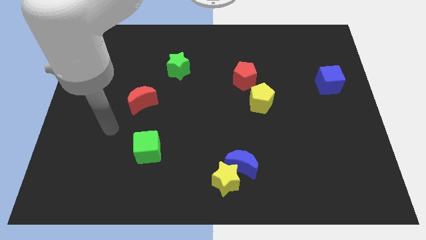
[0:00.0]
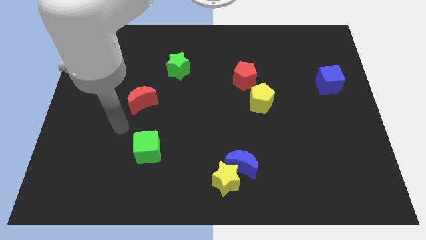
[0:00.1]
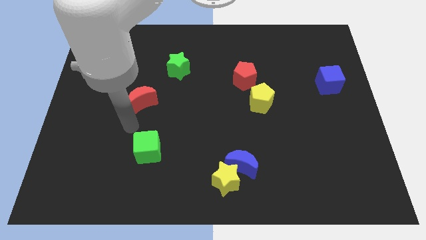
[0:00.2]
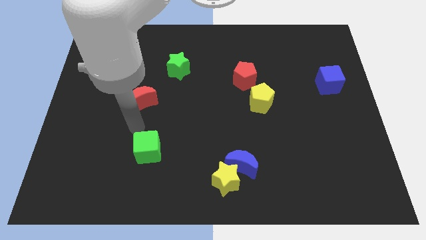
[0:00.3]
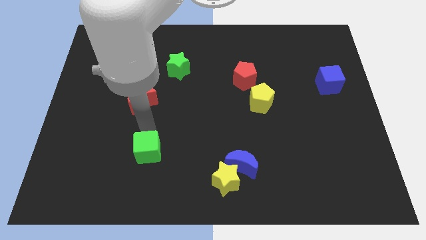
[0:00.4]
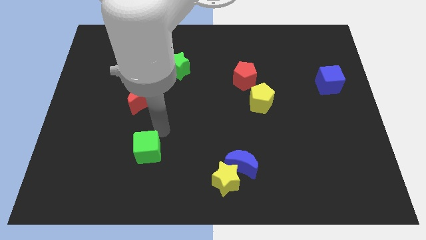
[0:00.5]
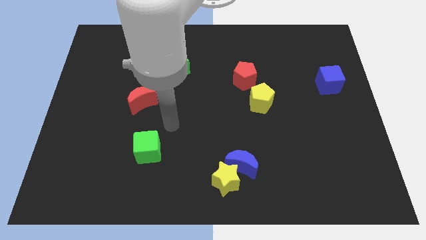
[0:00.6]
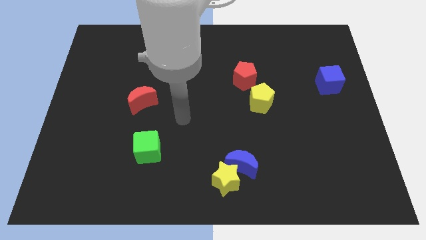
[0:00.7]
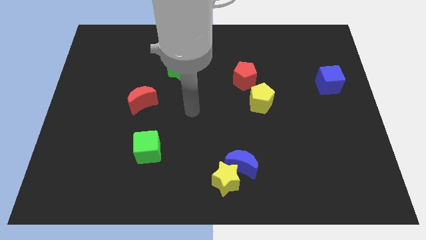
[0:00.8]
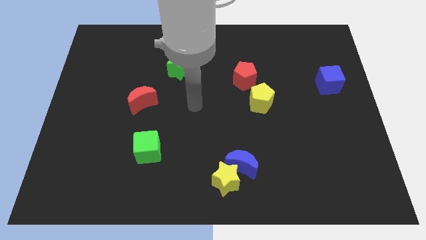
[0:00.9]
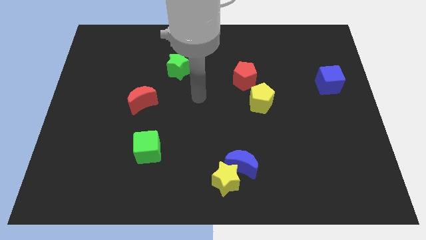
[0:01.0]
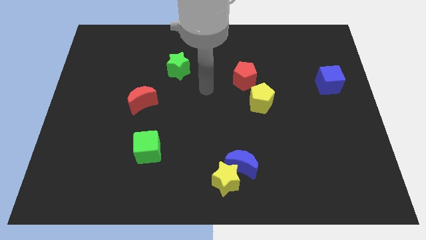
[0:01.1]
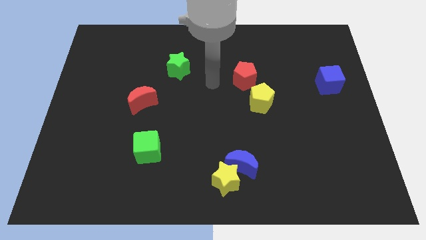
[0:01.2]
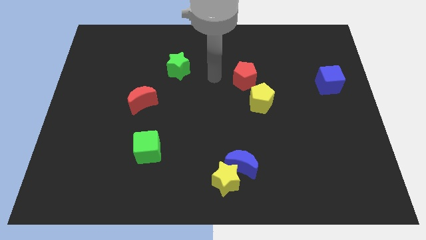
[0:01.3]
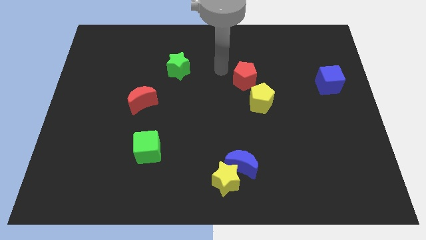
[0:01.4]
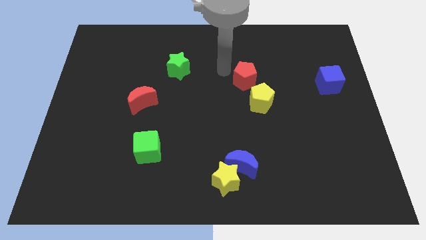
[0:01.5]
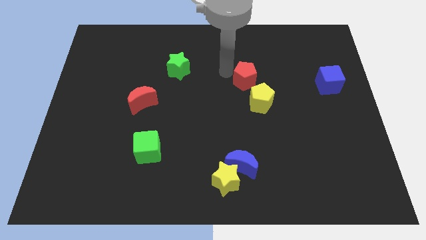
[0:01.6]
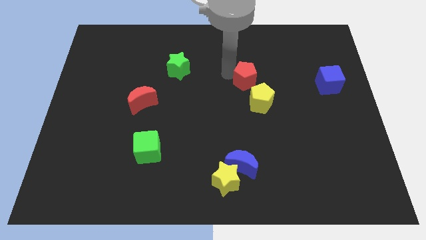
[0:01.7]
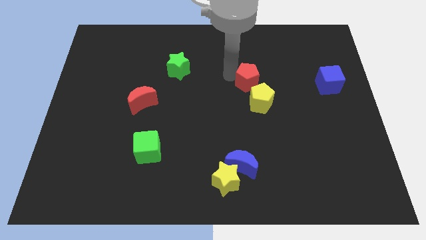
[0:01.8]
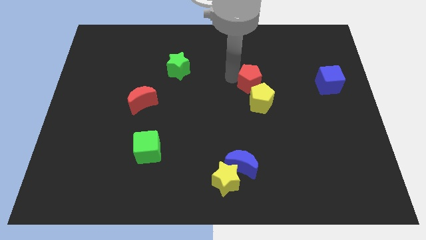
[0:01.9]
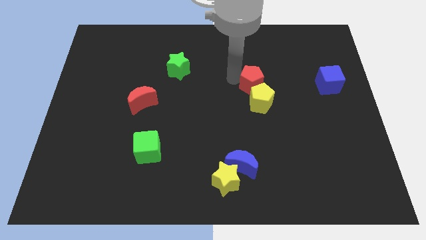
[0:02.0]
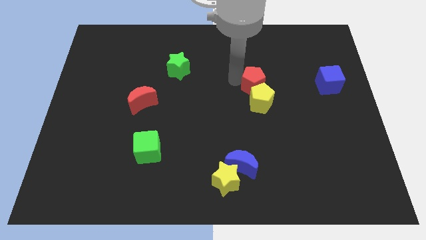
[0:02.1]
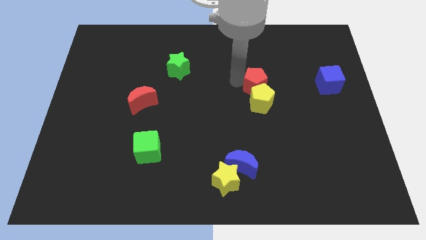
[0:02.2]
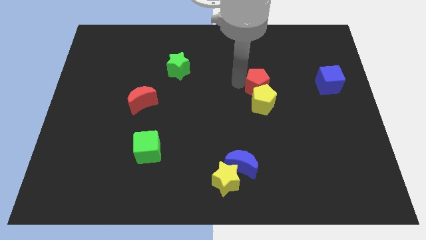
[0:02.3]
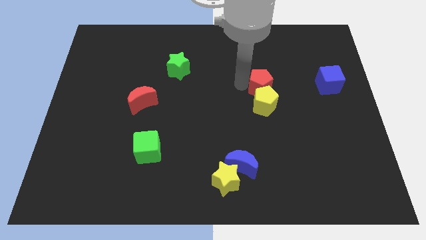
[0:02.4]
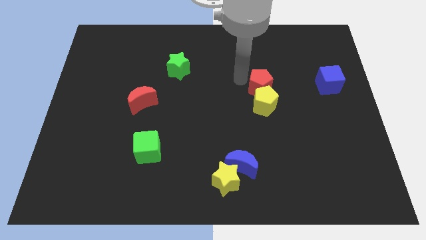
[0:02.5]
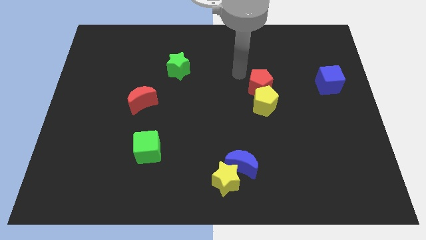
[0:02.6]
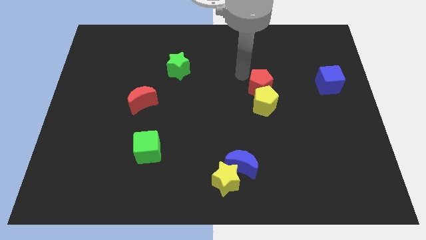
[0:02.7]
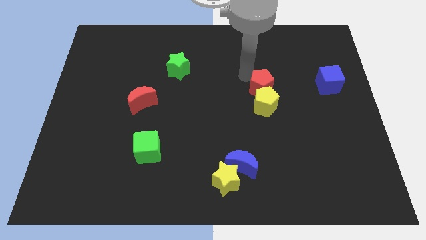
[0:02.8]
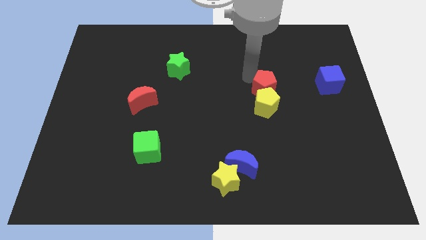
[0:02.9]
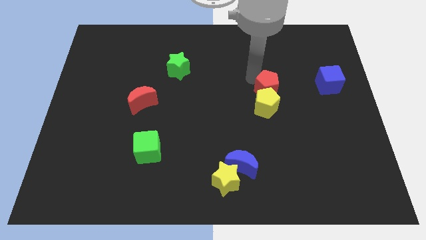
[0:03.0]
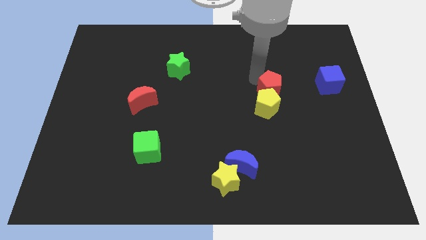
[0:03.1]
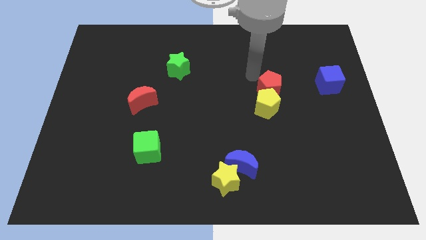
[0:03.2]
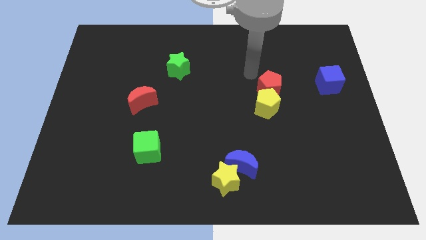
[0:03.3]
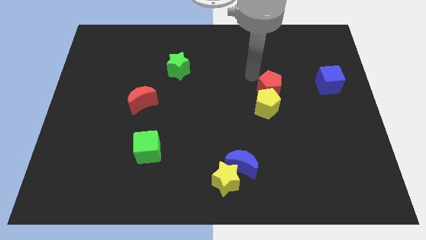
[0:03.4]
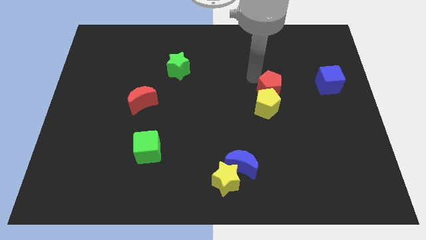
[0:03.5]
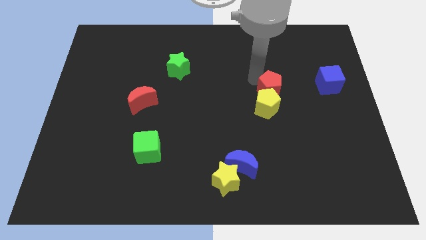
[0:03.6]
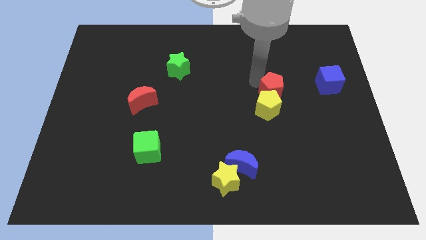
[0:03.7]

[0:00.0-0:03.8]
push the red pentagon a little bit diagonally down and to the right

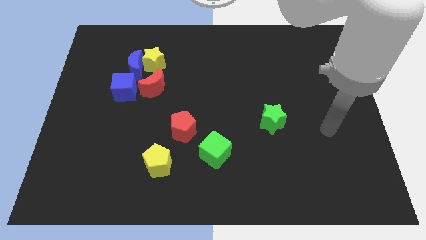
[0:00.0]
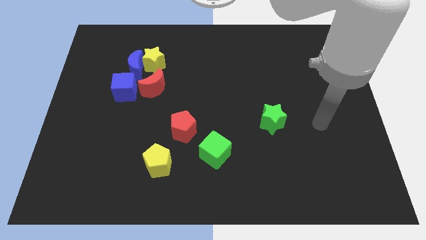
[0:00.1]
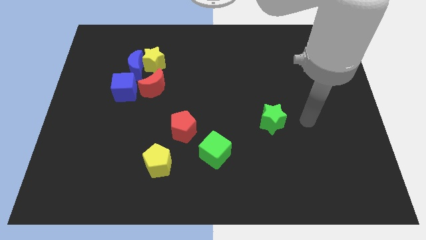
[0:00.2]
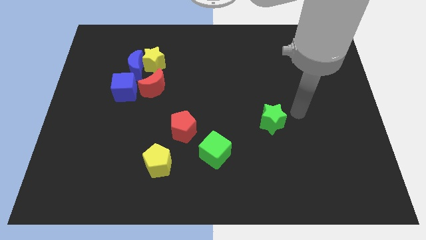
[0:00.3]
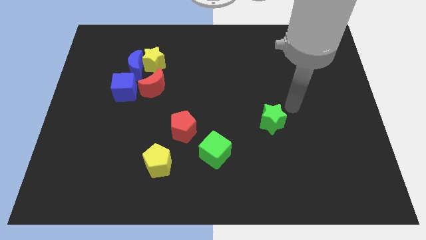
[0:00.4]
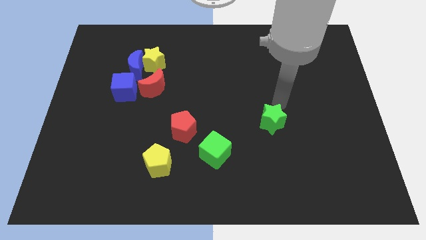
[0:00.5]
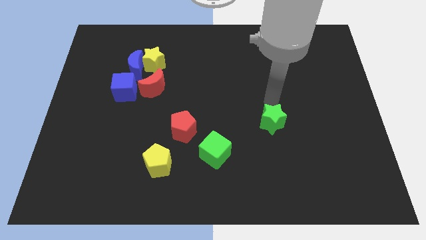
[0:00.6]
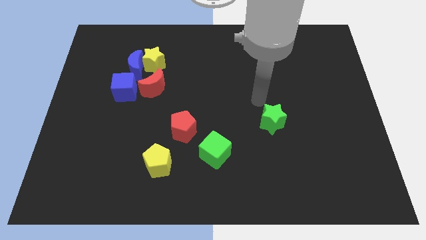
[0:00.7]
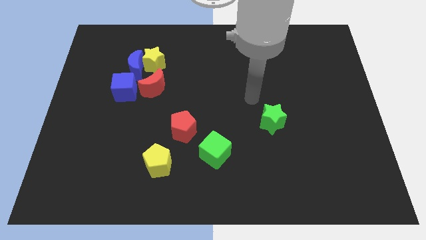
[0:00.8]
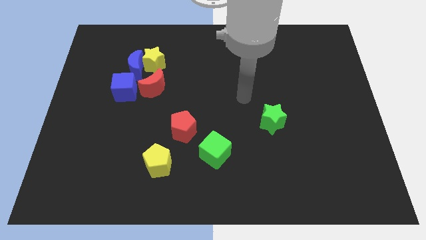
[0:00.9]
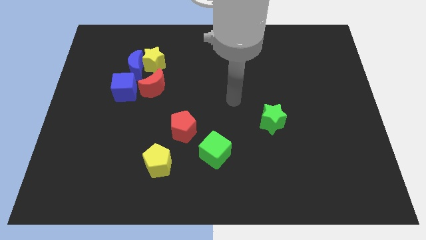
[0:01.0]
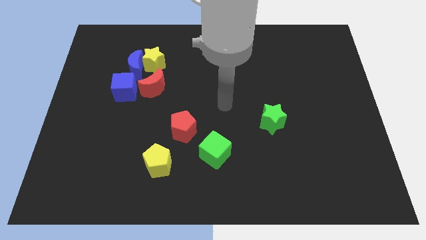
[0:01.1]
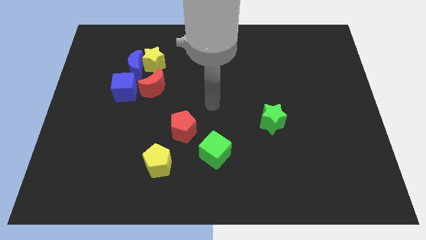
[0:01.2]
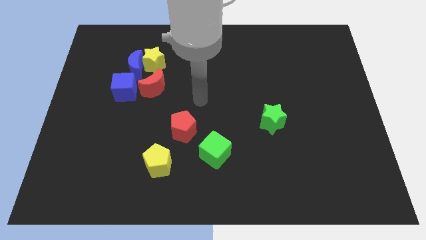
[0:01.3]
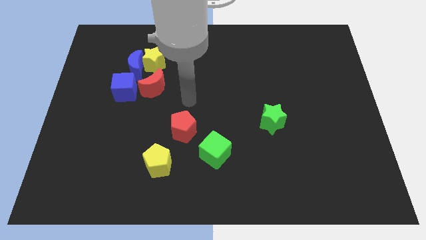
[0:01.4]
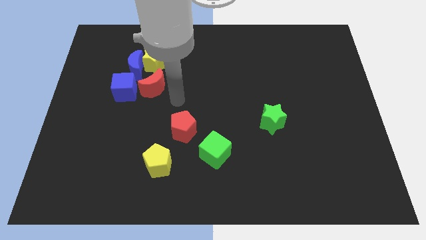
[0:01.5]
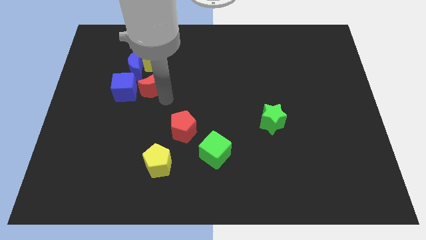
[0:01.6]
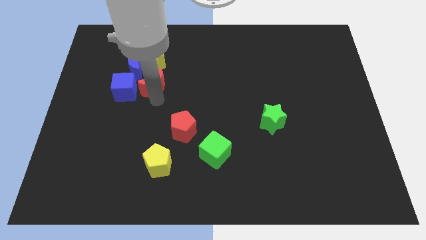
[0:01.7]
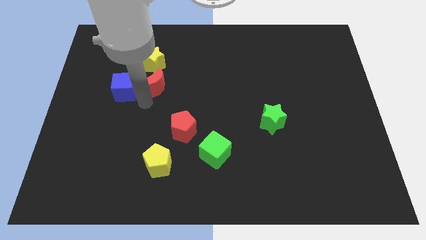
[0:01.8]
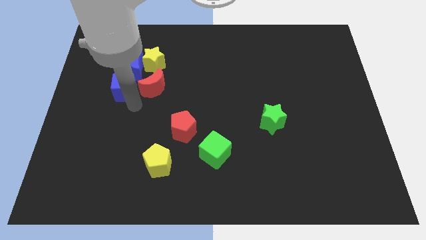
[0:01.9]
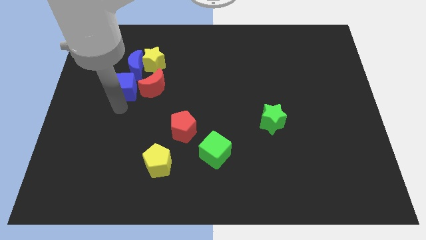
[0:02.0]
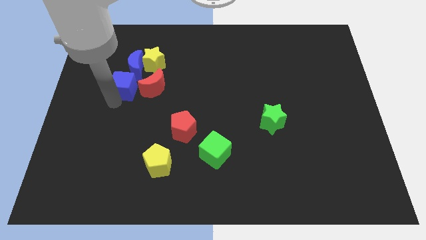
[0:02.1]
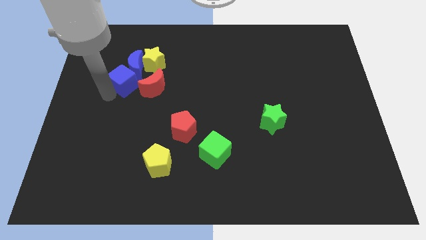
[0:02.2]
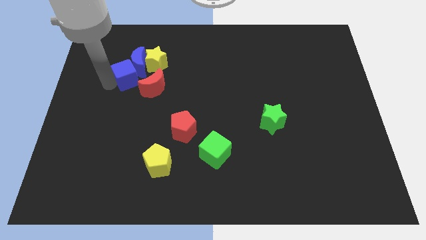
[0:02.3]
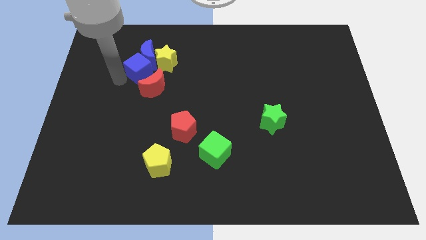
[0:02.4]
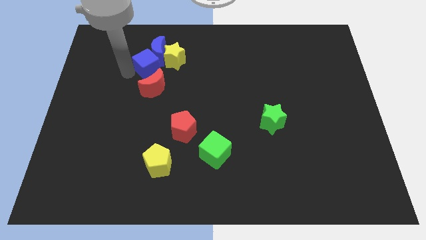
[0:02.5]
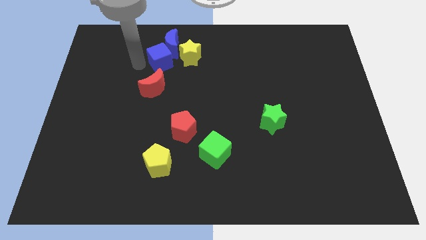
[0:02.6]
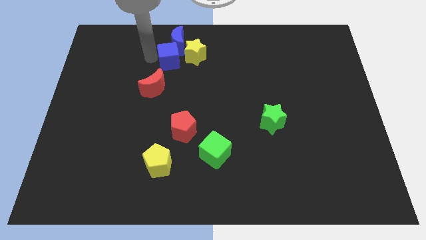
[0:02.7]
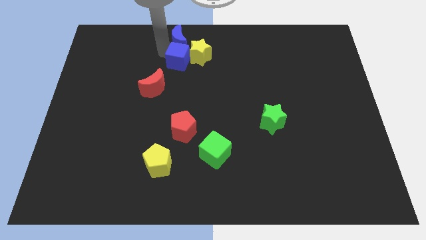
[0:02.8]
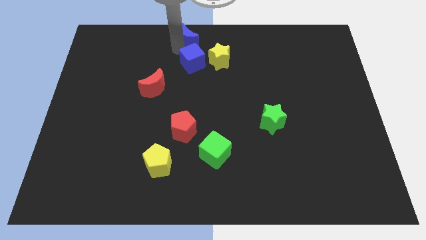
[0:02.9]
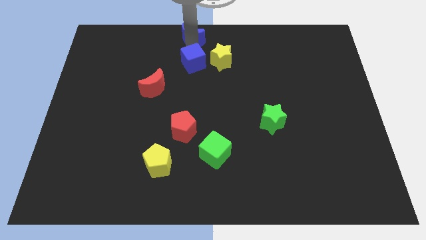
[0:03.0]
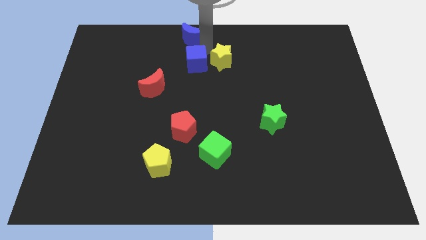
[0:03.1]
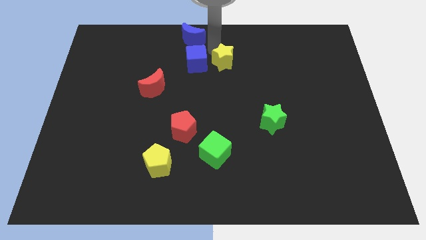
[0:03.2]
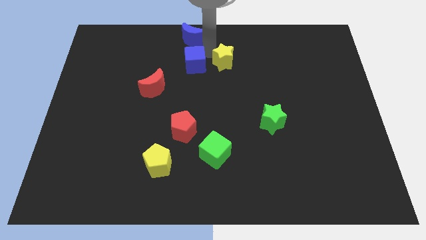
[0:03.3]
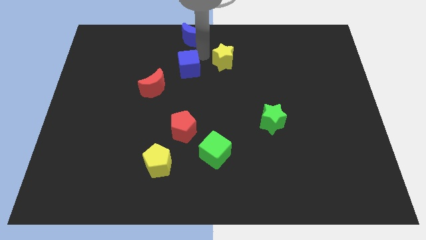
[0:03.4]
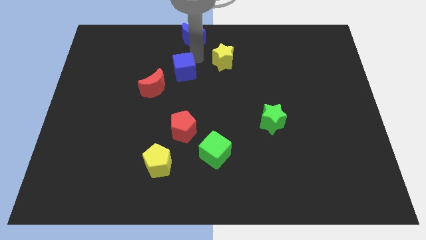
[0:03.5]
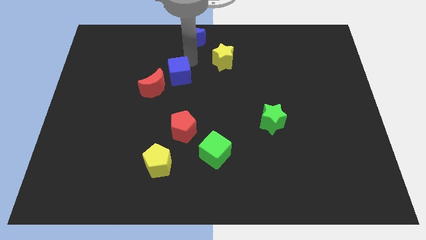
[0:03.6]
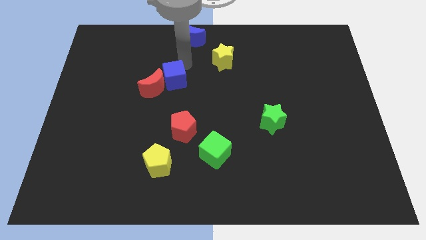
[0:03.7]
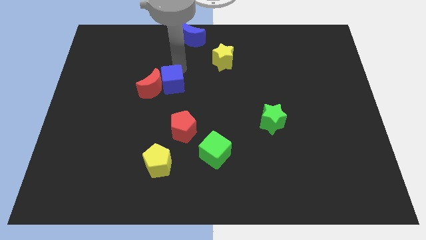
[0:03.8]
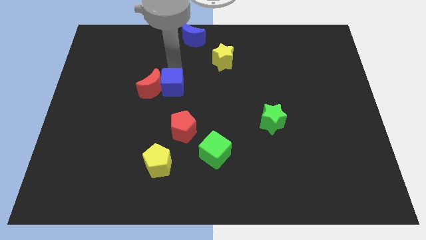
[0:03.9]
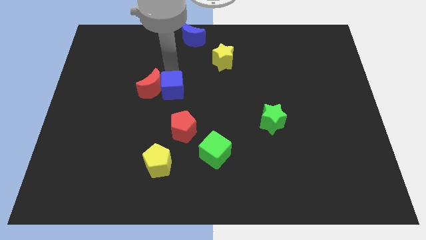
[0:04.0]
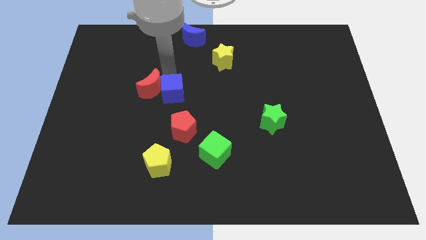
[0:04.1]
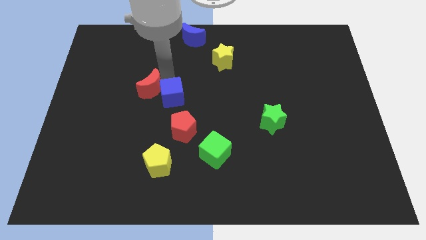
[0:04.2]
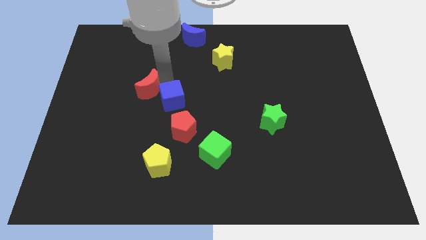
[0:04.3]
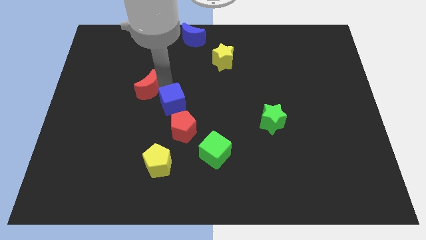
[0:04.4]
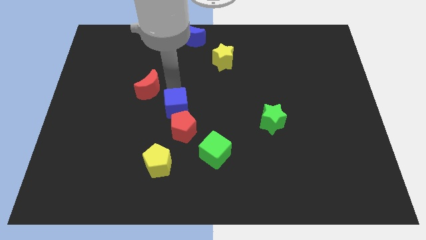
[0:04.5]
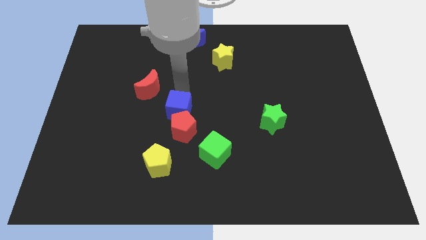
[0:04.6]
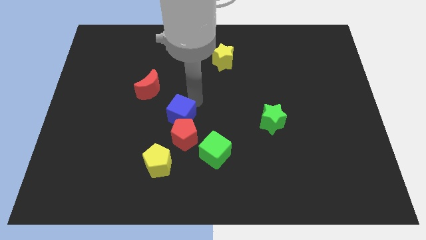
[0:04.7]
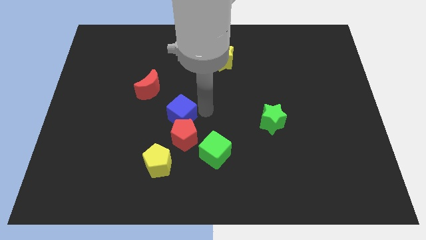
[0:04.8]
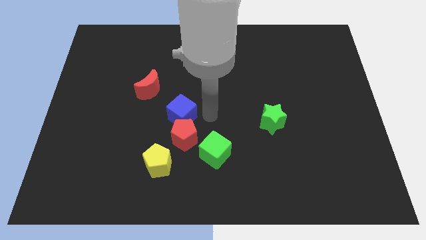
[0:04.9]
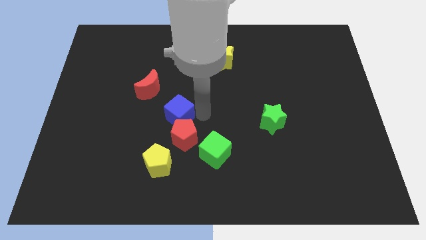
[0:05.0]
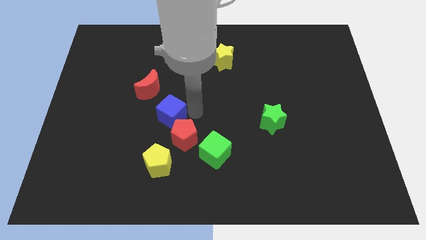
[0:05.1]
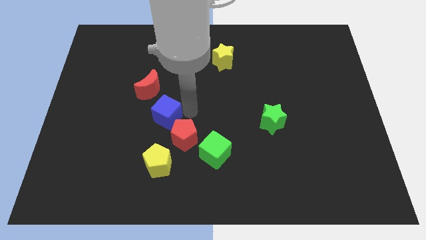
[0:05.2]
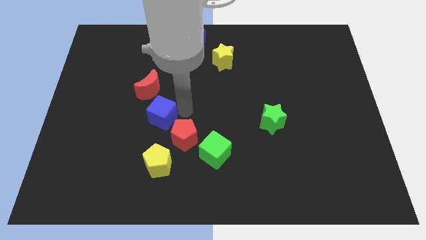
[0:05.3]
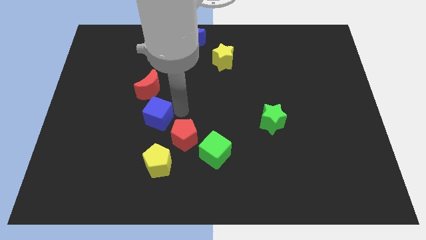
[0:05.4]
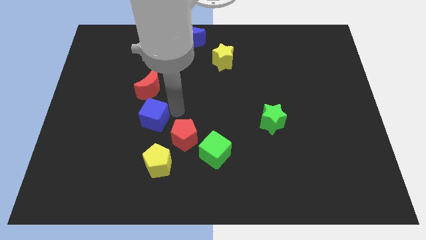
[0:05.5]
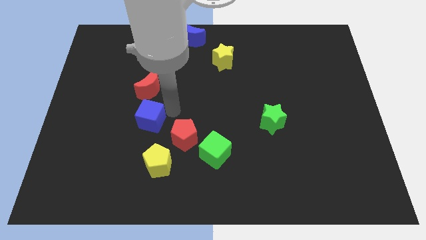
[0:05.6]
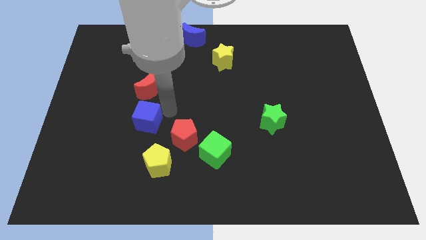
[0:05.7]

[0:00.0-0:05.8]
slide the blue cube a little down
